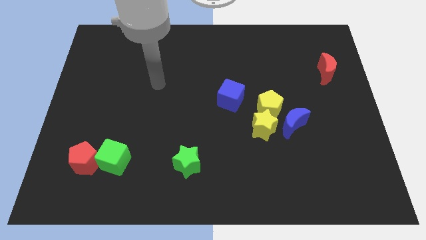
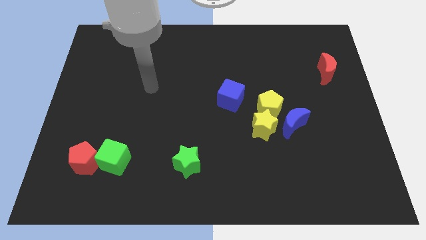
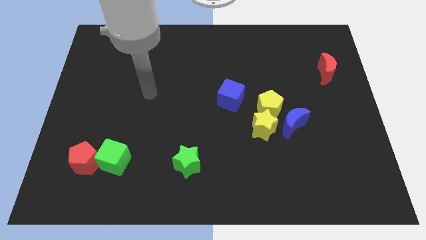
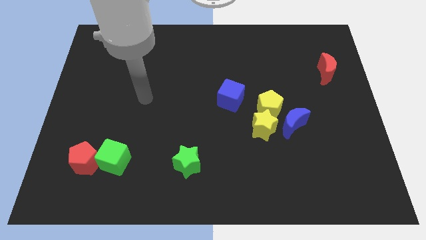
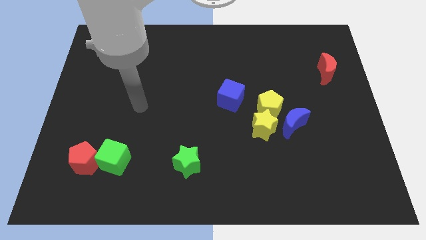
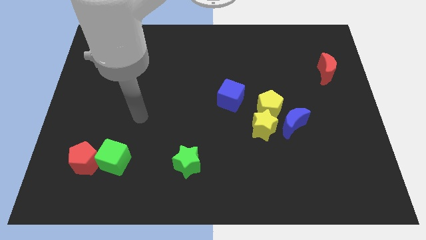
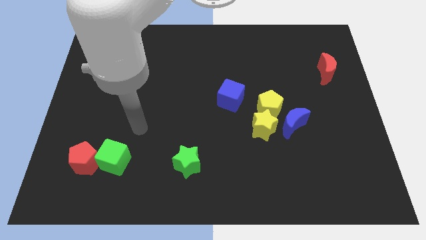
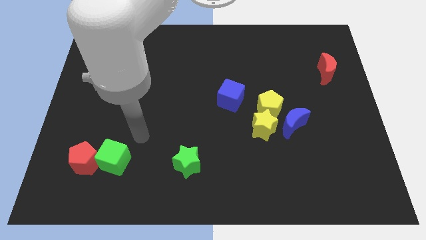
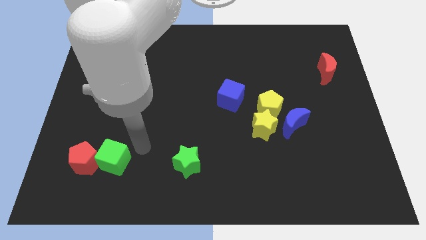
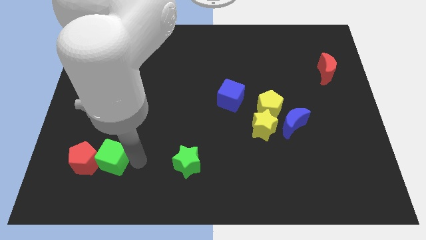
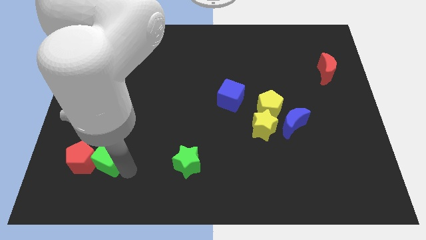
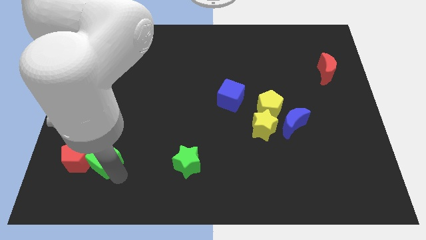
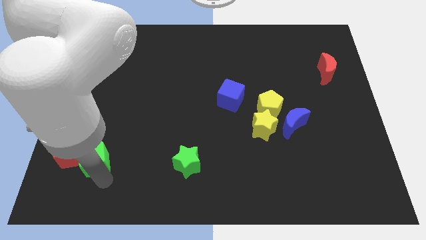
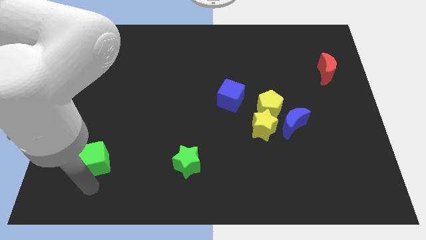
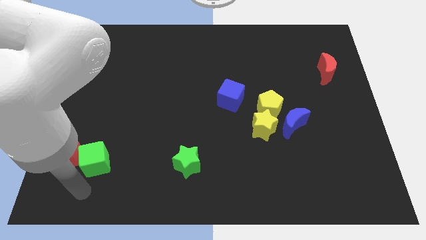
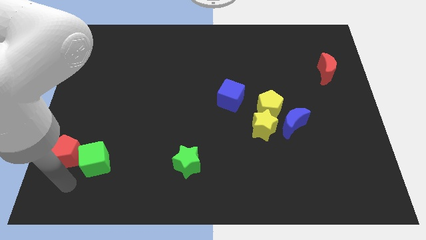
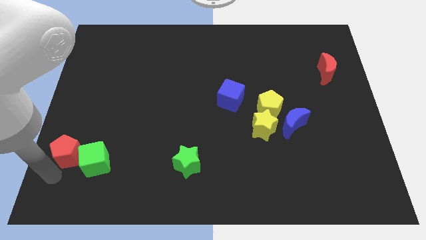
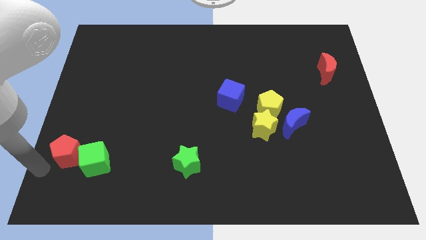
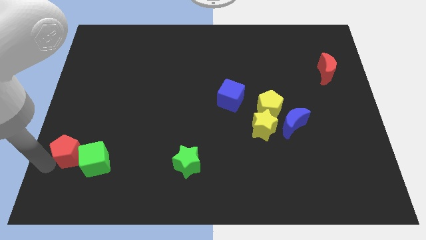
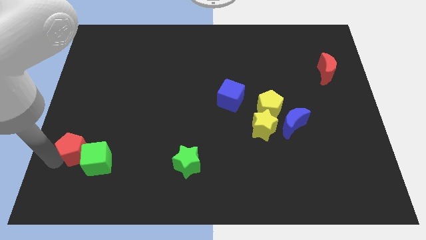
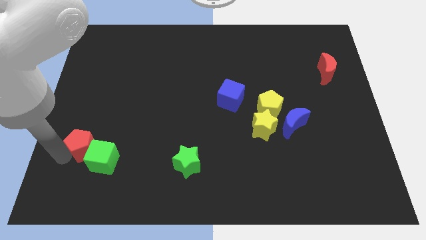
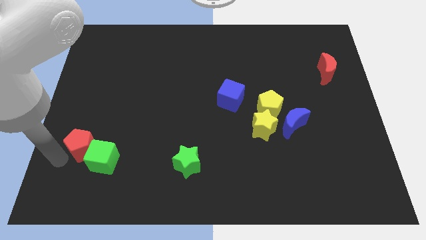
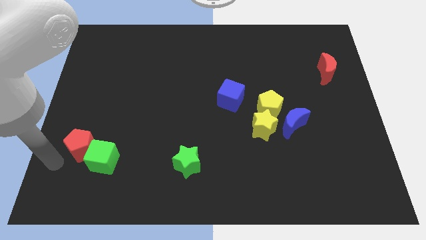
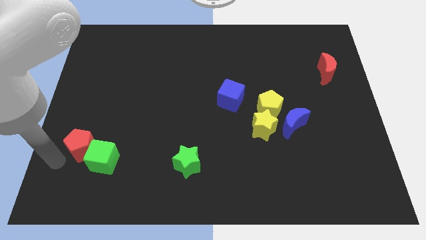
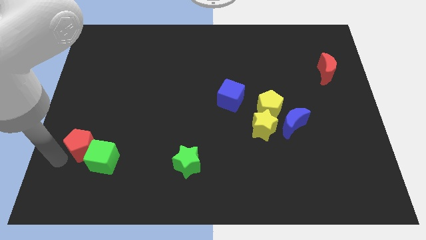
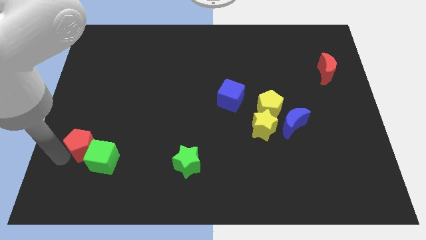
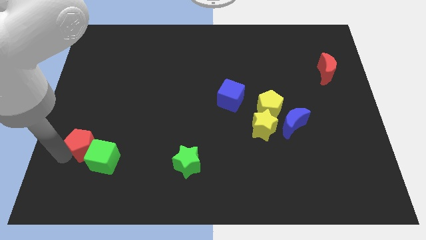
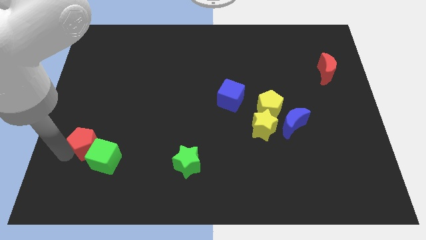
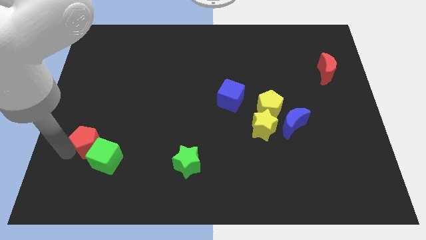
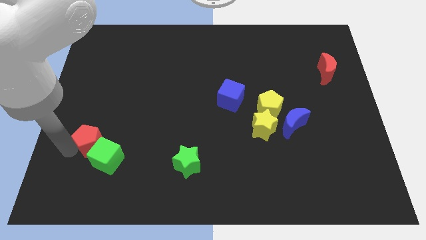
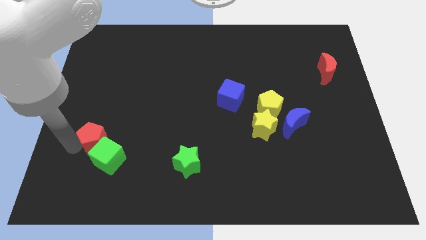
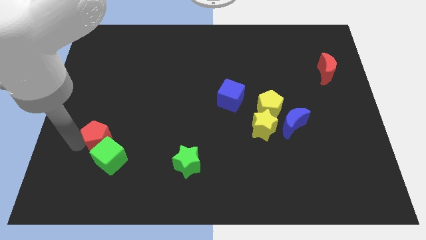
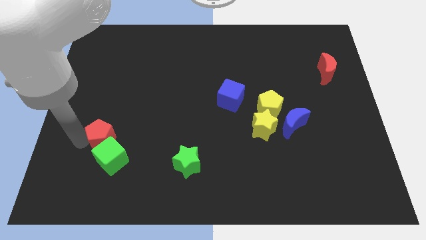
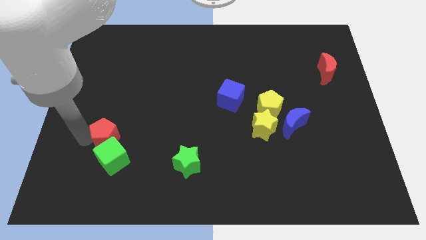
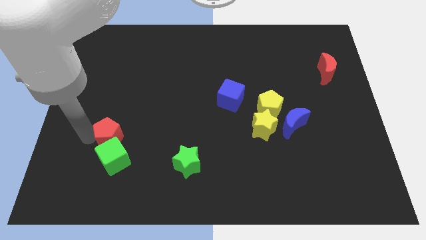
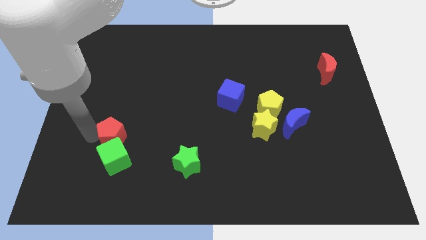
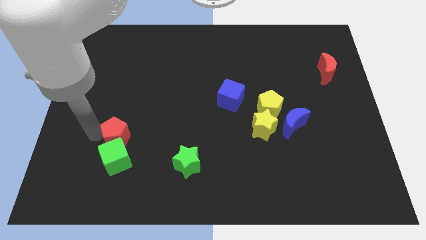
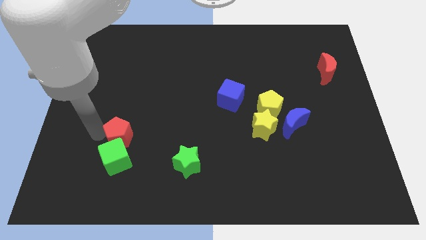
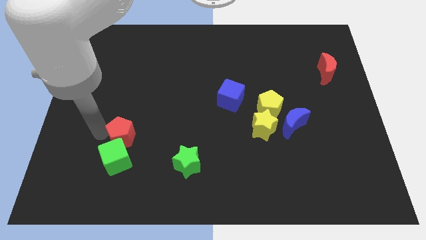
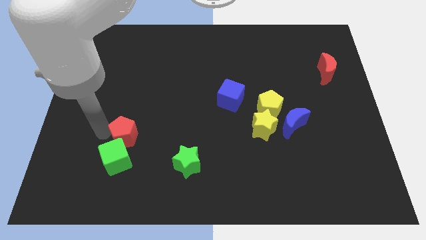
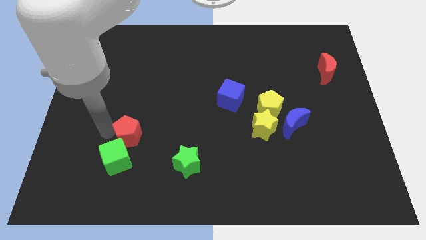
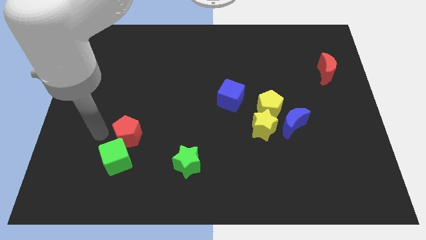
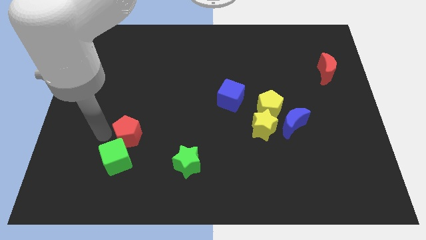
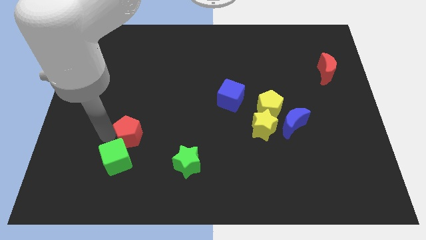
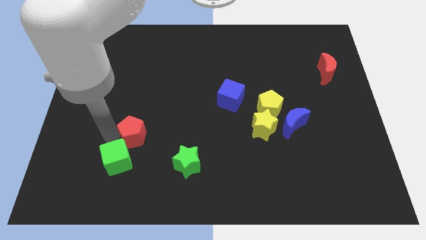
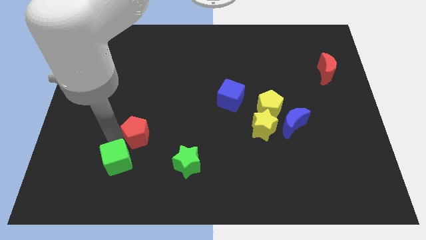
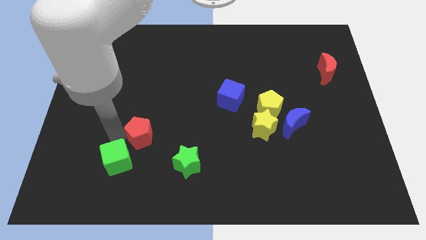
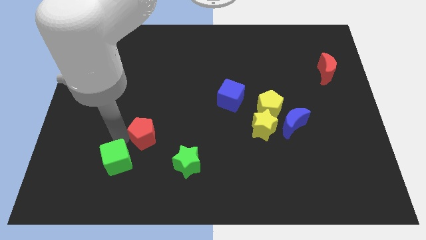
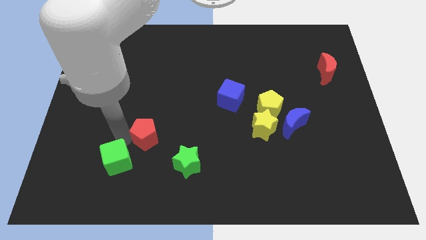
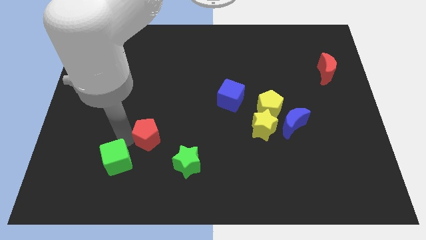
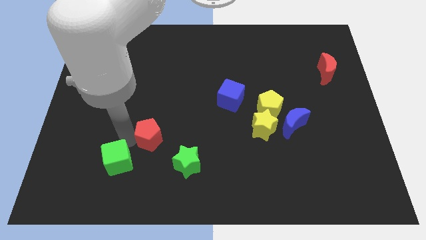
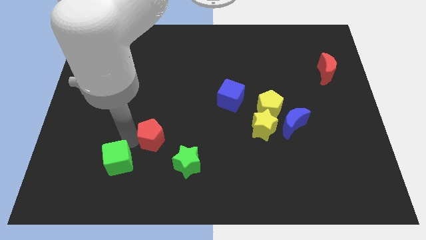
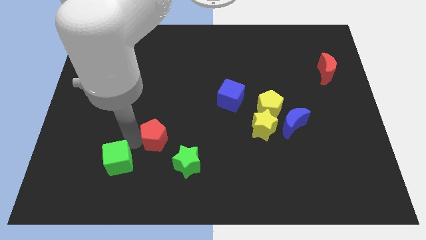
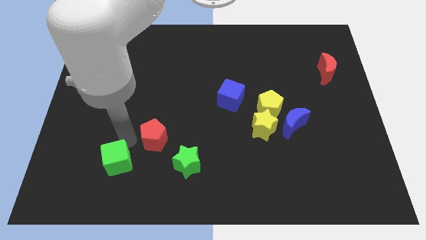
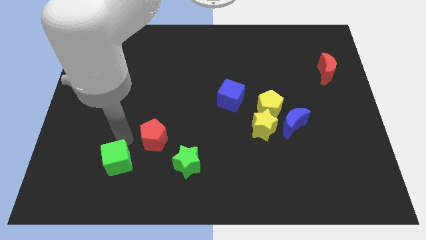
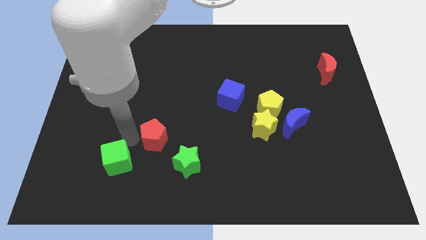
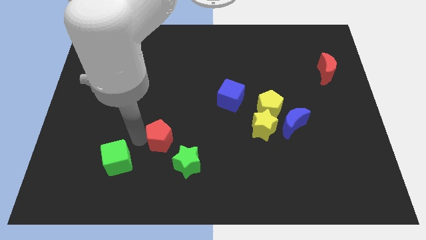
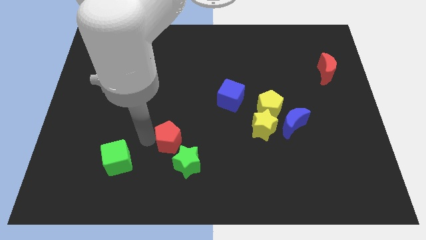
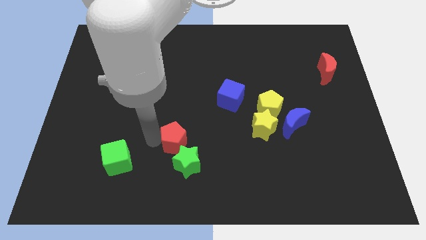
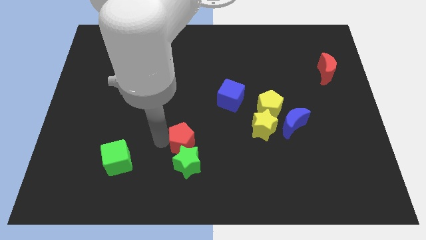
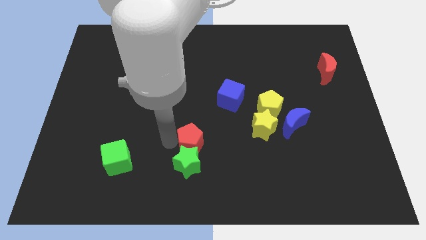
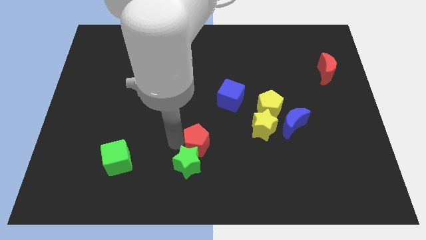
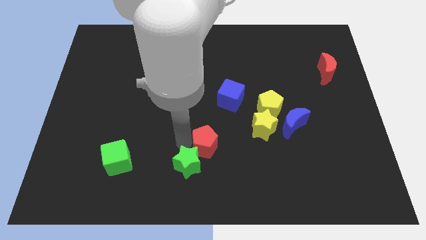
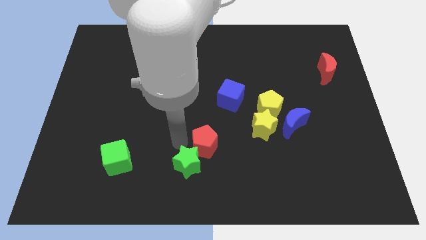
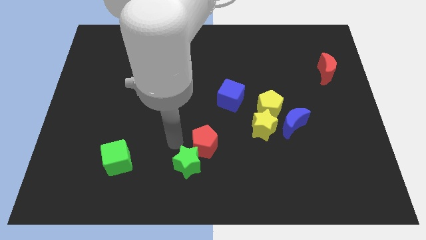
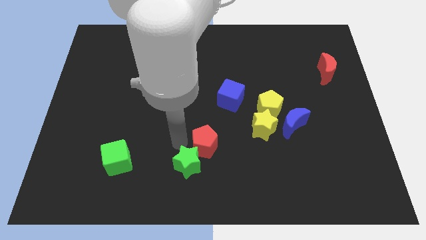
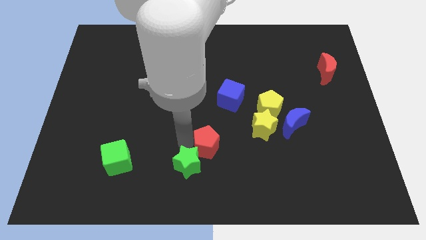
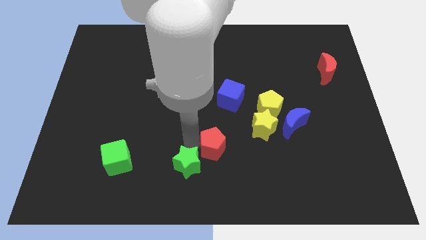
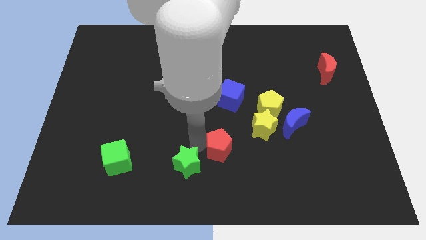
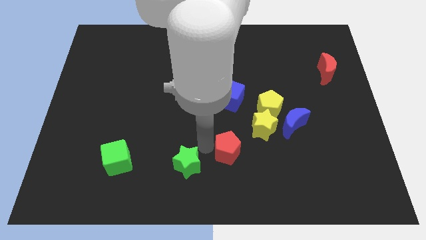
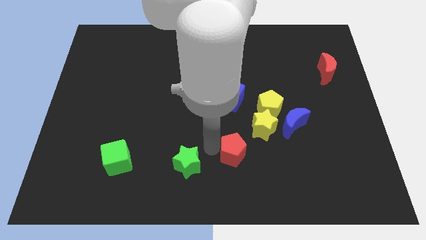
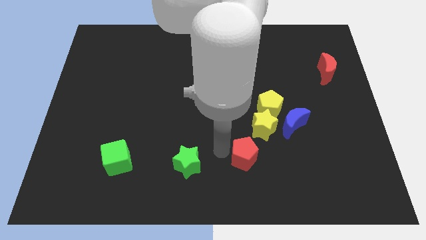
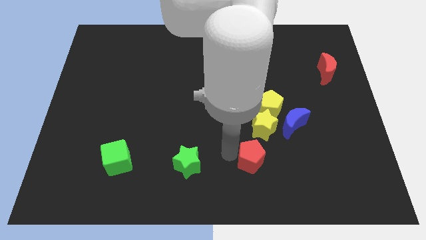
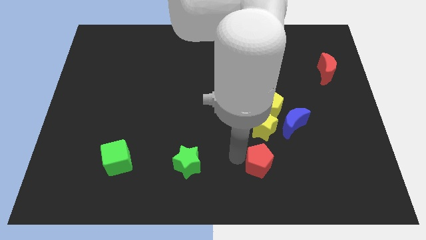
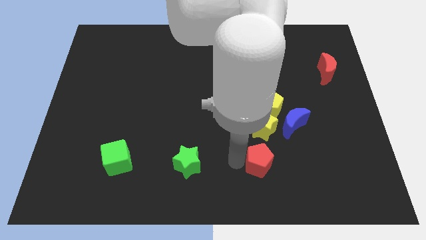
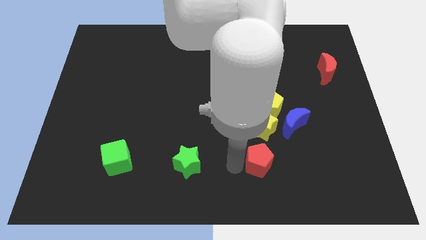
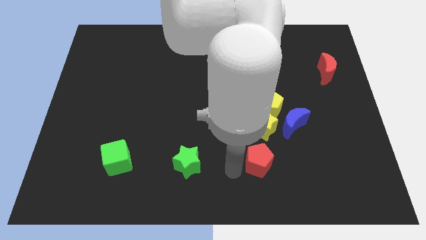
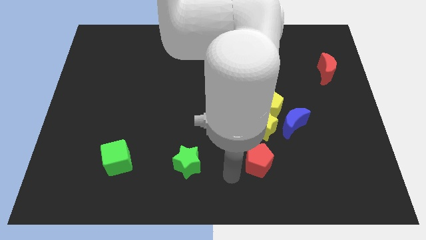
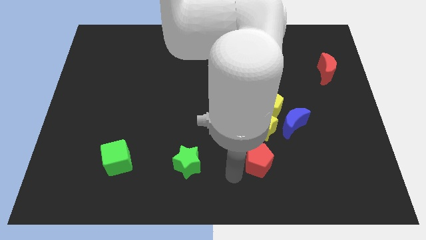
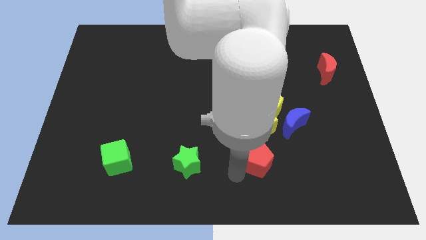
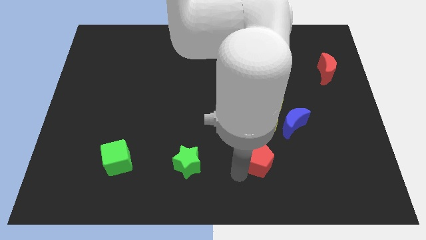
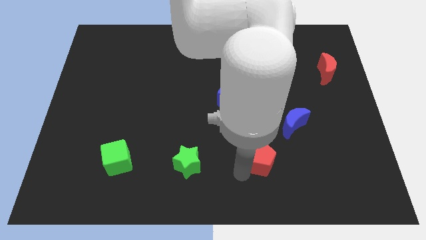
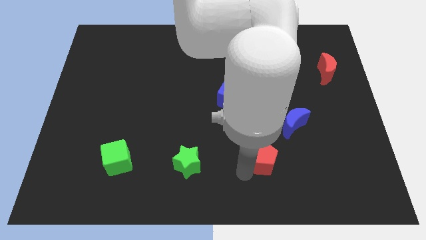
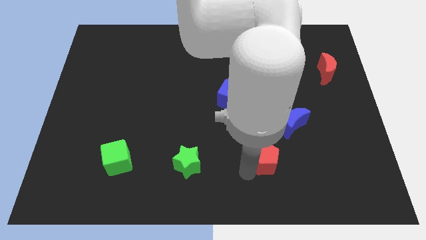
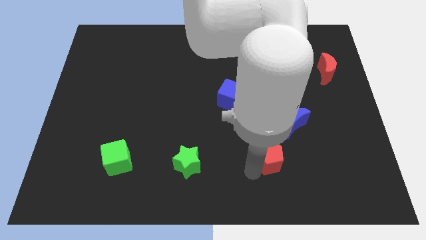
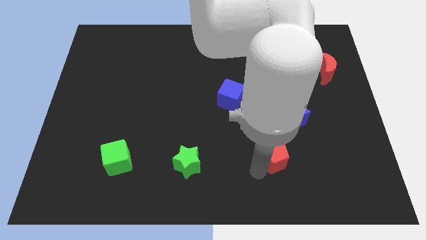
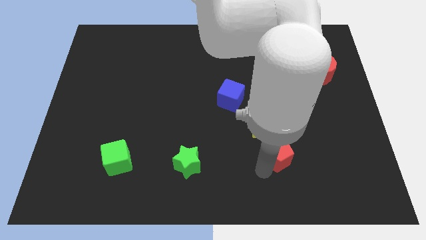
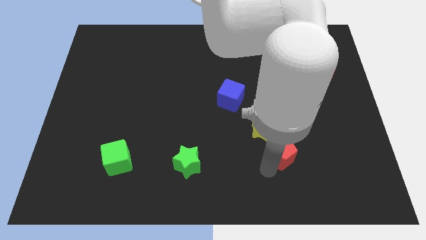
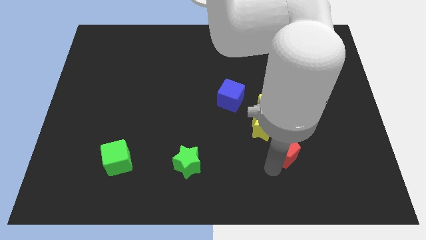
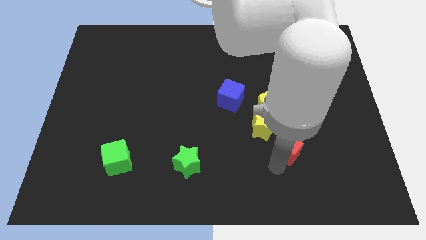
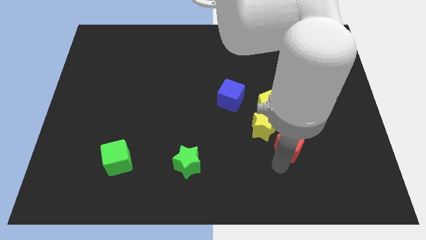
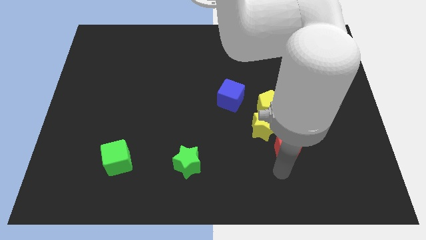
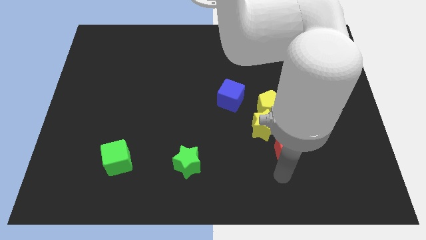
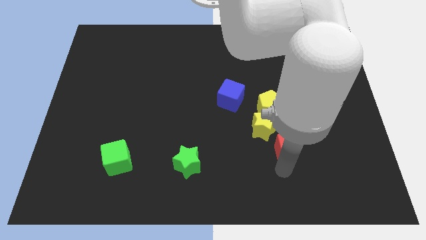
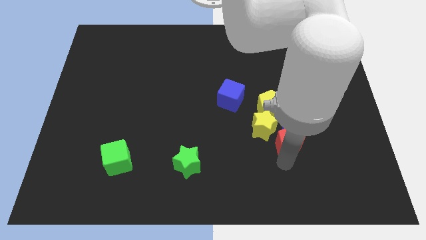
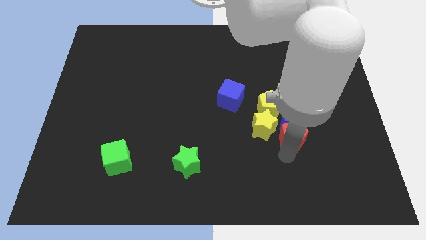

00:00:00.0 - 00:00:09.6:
slide the red pentagon towards the blue moon
